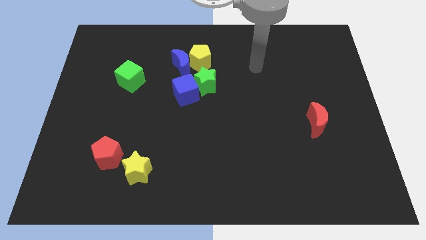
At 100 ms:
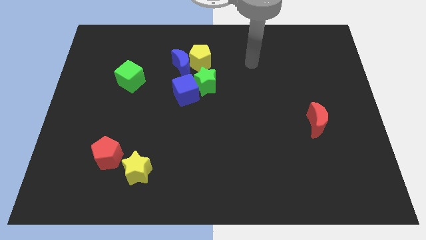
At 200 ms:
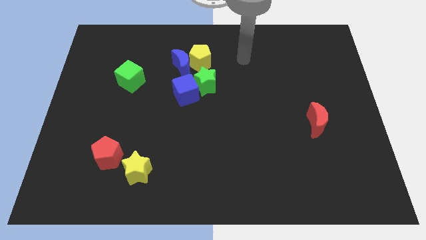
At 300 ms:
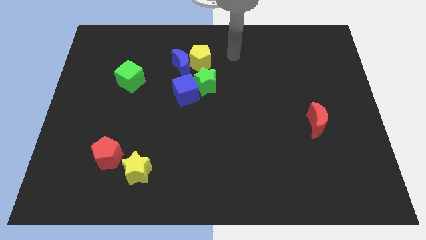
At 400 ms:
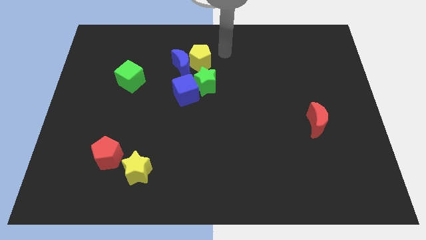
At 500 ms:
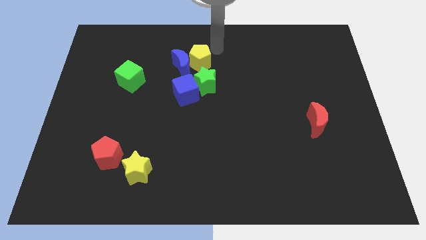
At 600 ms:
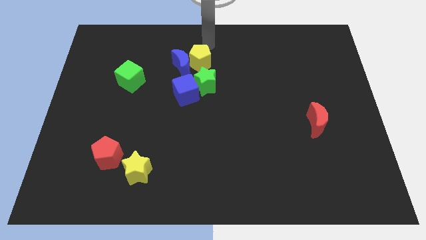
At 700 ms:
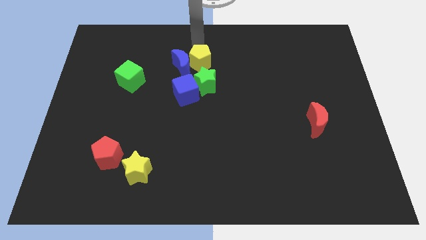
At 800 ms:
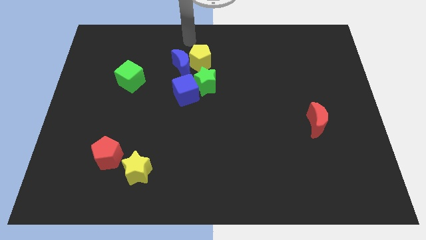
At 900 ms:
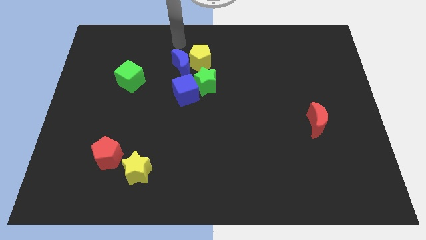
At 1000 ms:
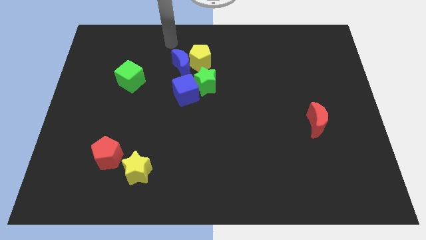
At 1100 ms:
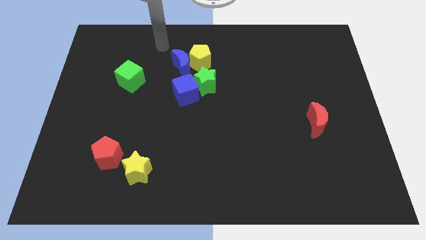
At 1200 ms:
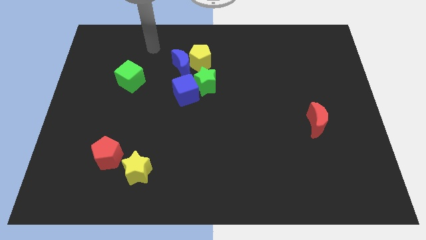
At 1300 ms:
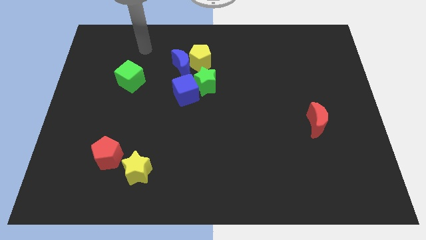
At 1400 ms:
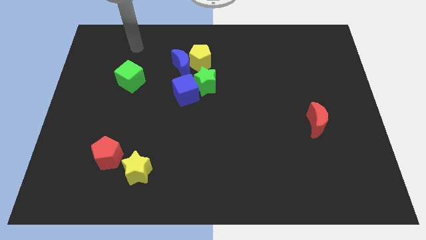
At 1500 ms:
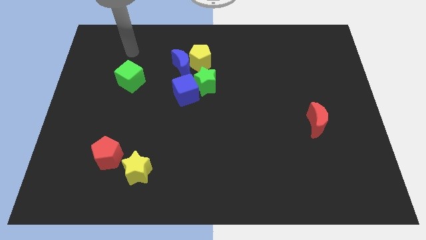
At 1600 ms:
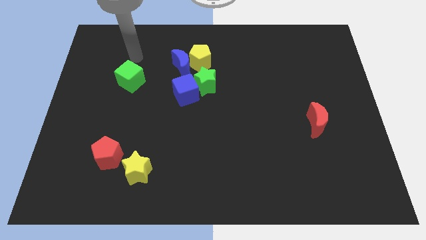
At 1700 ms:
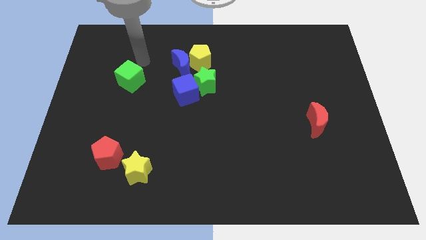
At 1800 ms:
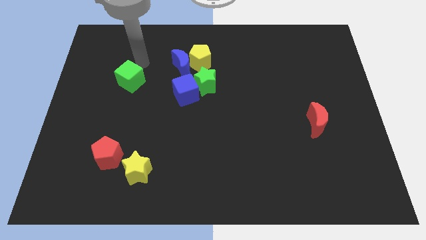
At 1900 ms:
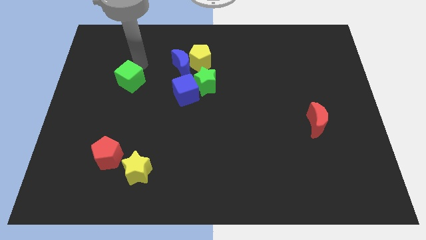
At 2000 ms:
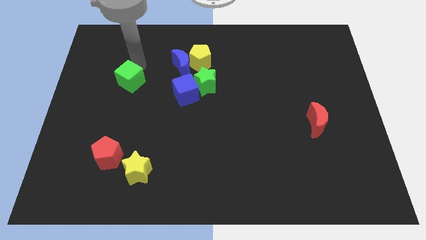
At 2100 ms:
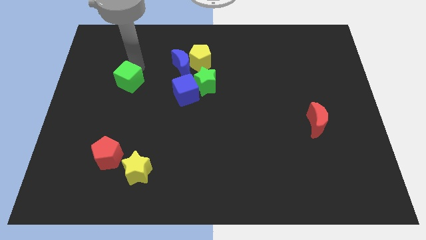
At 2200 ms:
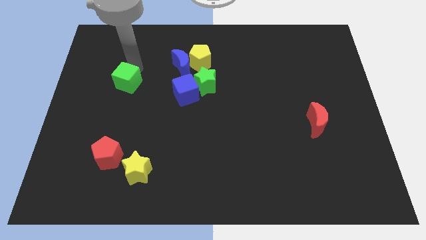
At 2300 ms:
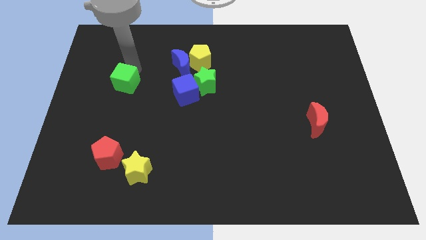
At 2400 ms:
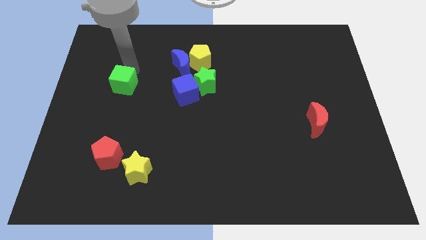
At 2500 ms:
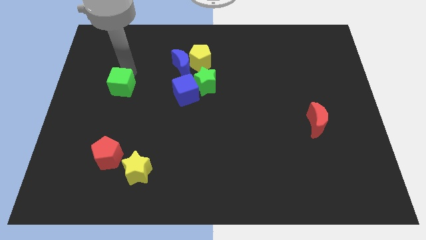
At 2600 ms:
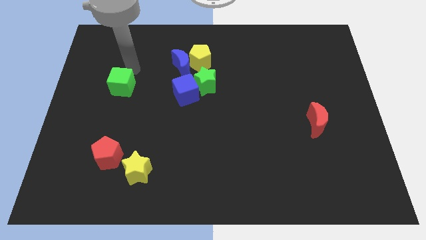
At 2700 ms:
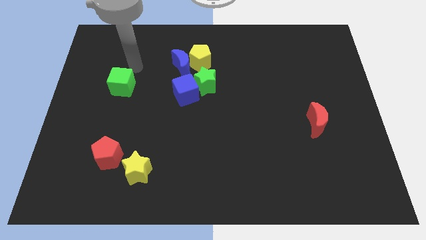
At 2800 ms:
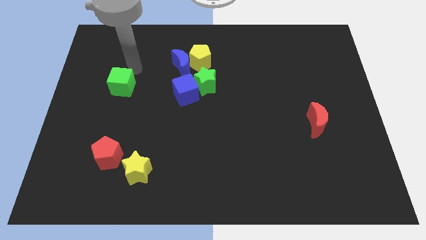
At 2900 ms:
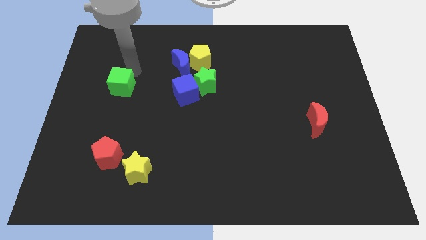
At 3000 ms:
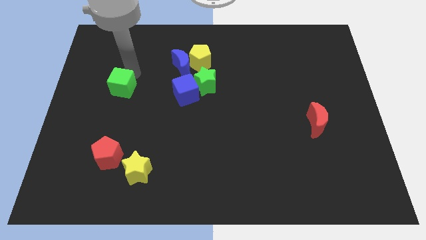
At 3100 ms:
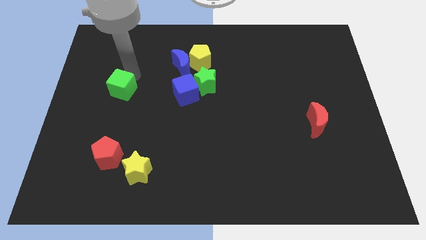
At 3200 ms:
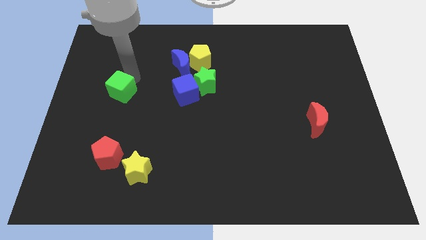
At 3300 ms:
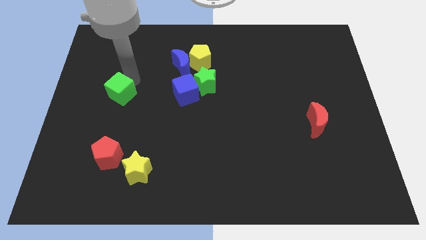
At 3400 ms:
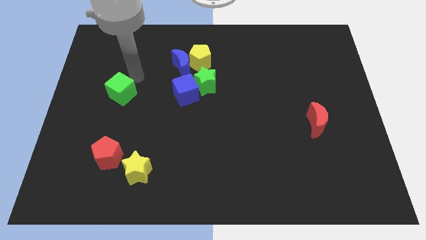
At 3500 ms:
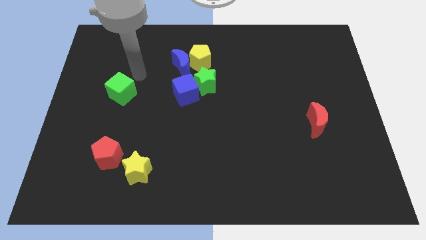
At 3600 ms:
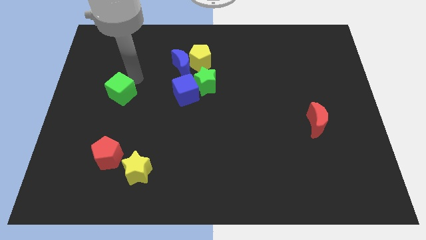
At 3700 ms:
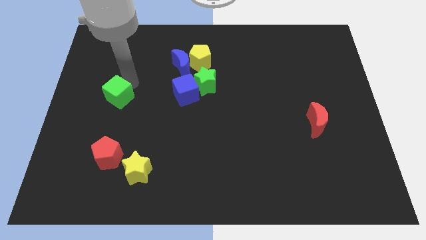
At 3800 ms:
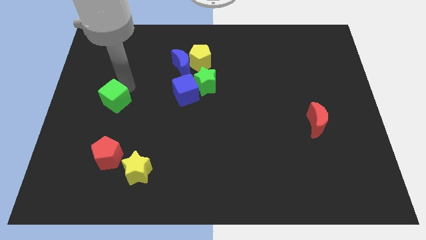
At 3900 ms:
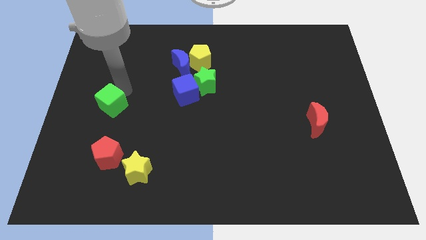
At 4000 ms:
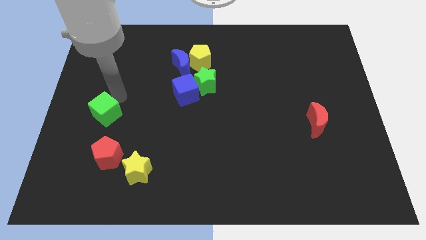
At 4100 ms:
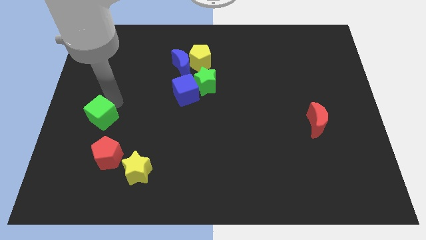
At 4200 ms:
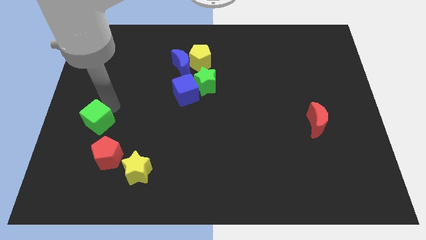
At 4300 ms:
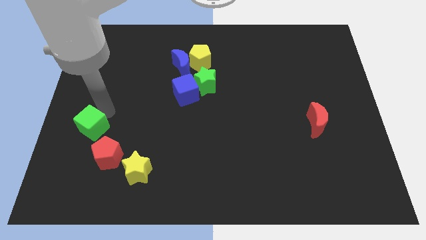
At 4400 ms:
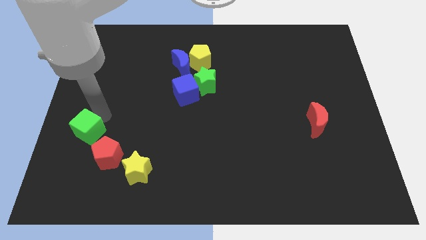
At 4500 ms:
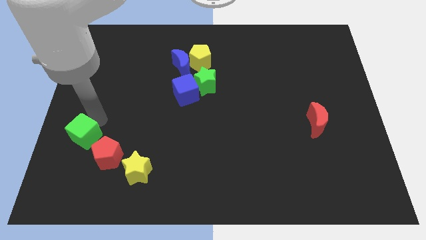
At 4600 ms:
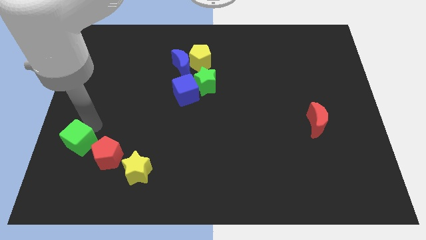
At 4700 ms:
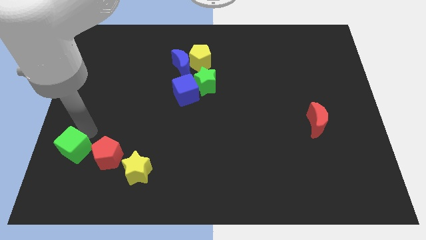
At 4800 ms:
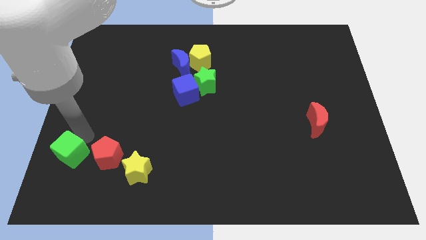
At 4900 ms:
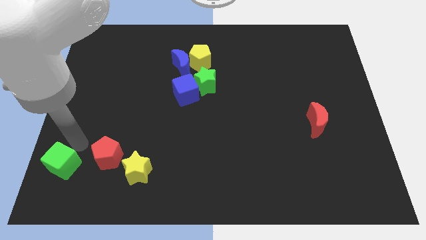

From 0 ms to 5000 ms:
push the green cube to the bottom left

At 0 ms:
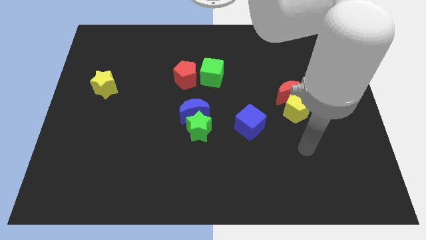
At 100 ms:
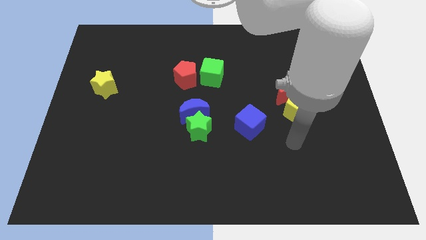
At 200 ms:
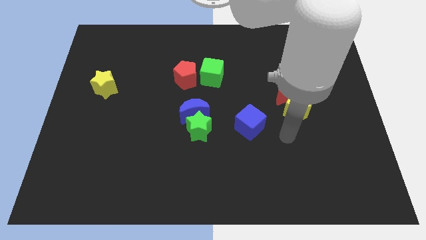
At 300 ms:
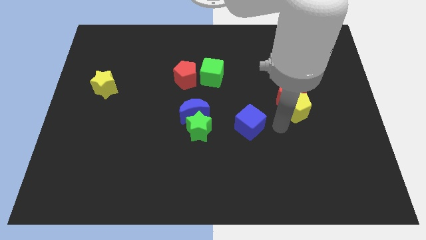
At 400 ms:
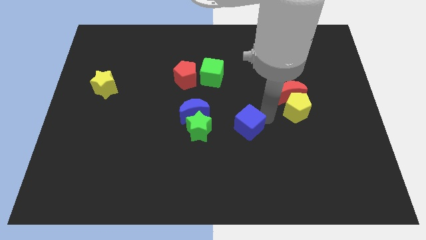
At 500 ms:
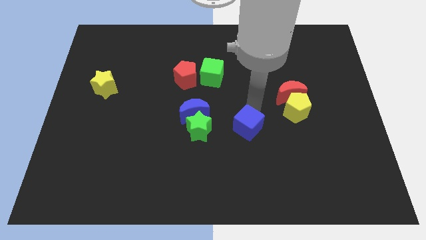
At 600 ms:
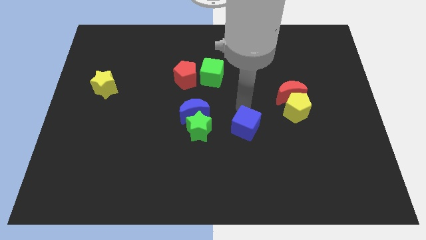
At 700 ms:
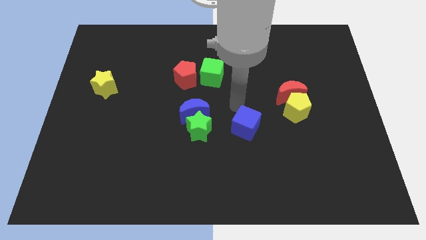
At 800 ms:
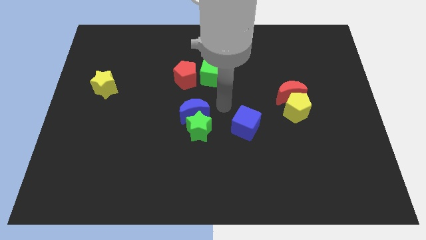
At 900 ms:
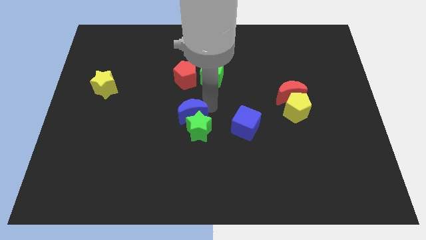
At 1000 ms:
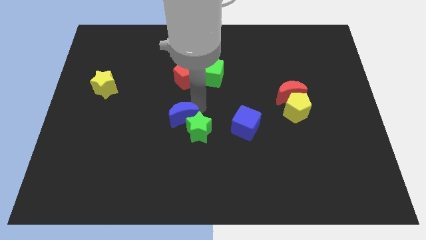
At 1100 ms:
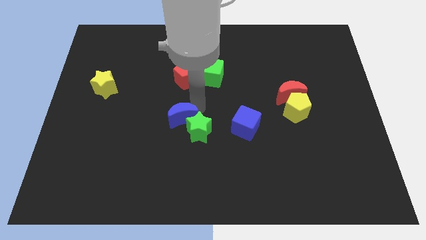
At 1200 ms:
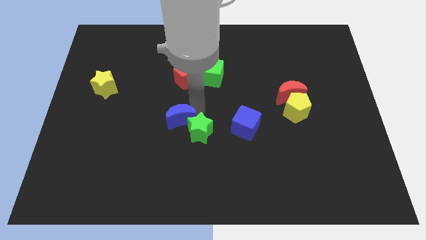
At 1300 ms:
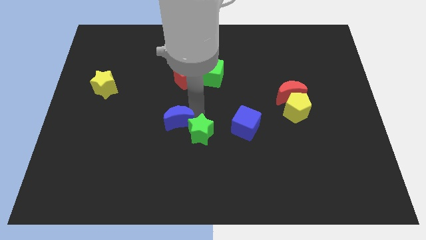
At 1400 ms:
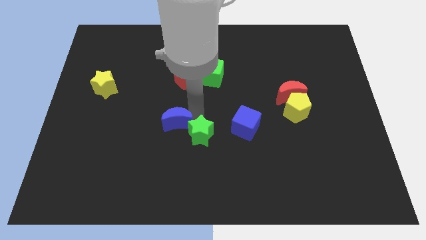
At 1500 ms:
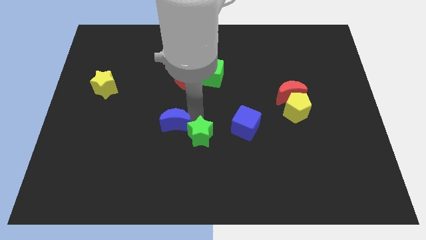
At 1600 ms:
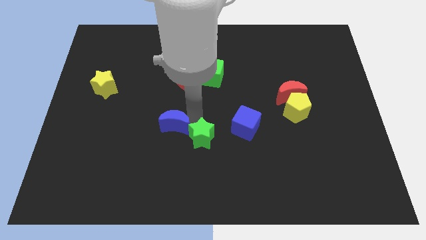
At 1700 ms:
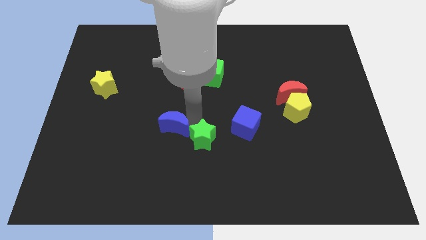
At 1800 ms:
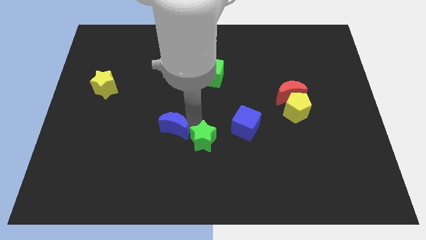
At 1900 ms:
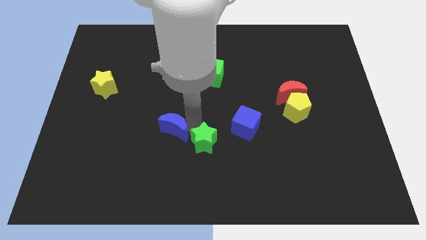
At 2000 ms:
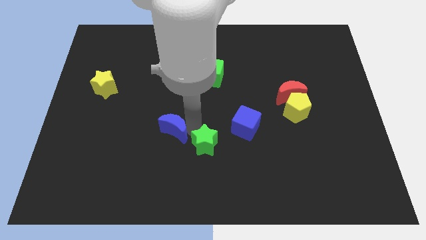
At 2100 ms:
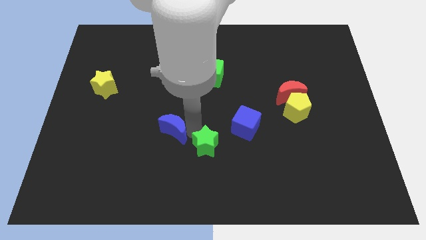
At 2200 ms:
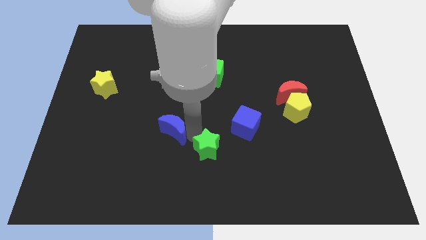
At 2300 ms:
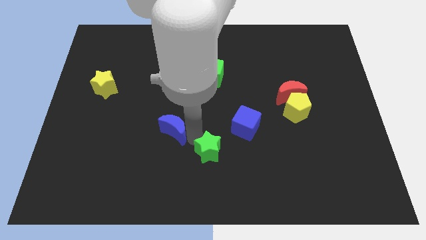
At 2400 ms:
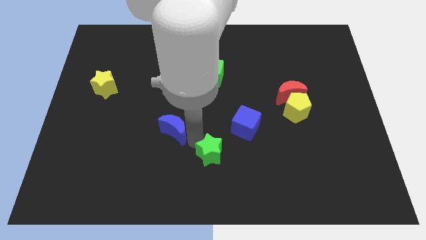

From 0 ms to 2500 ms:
push the green star to the bottom
